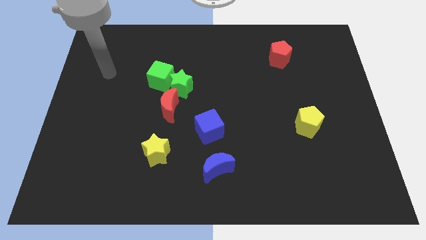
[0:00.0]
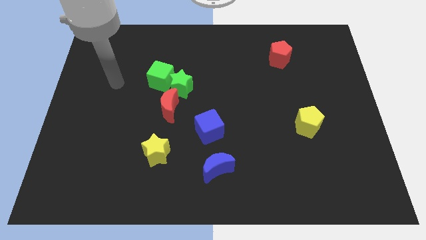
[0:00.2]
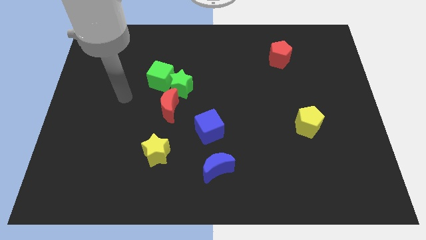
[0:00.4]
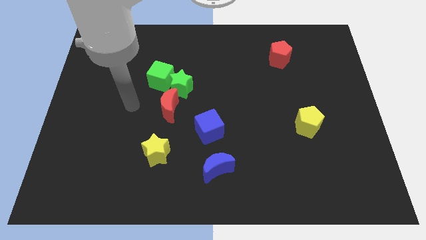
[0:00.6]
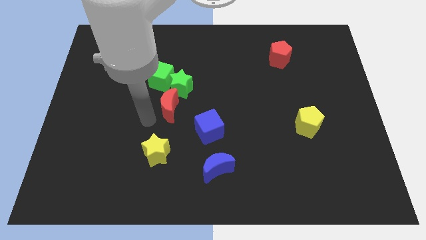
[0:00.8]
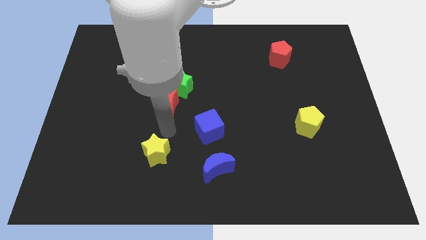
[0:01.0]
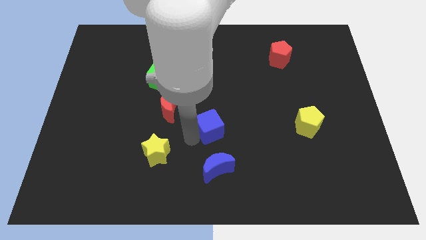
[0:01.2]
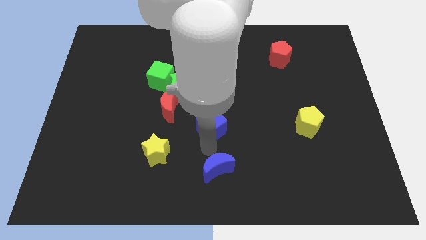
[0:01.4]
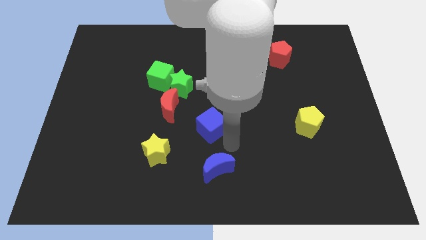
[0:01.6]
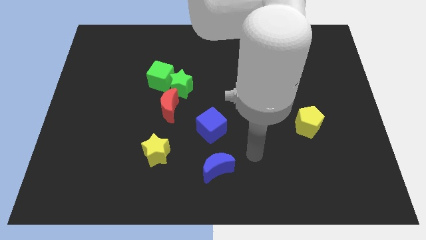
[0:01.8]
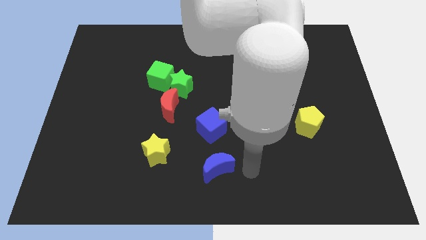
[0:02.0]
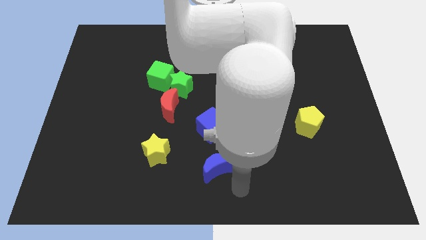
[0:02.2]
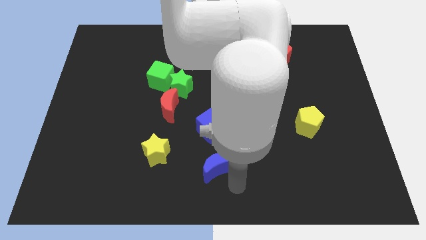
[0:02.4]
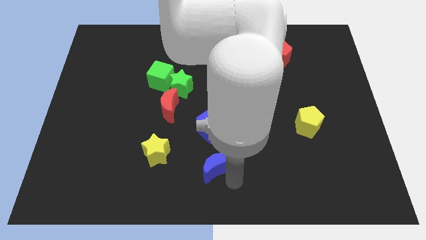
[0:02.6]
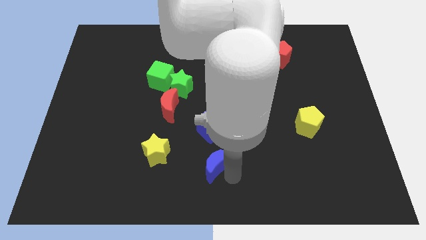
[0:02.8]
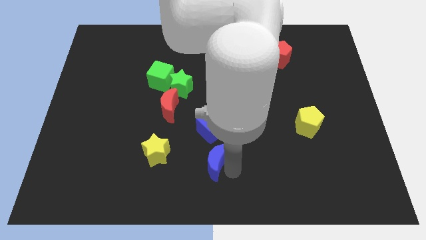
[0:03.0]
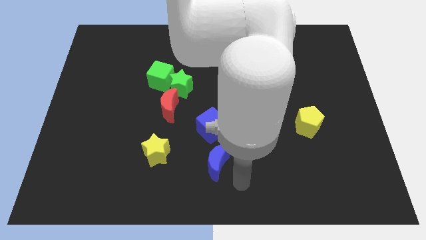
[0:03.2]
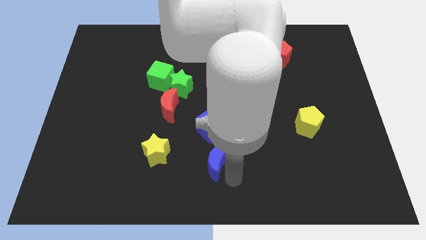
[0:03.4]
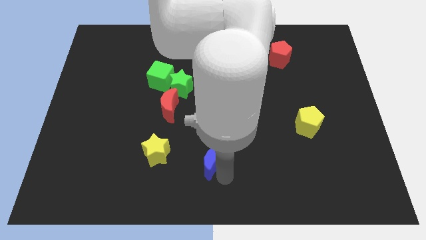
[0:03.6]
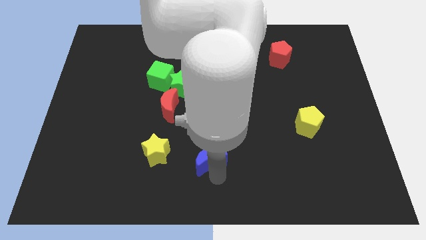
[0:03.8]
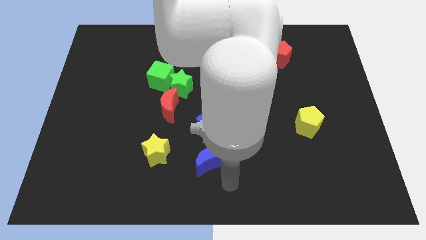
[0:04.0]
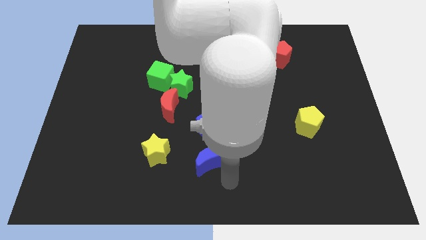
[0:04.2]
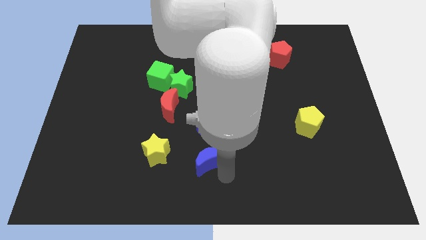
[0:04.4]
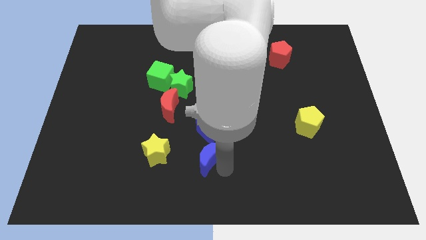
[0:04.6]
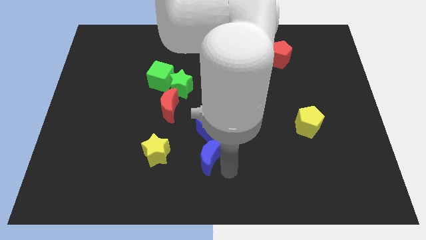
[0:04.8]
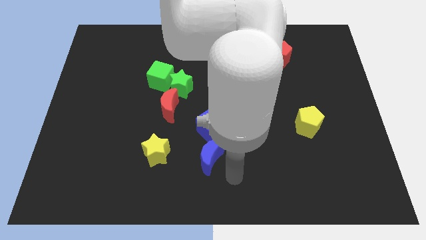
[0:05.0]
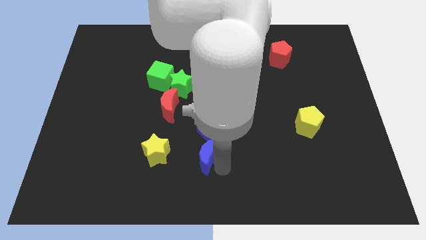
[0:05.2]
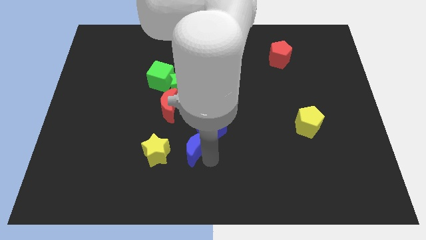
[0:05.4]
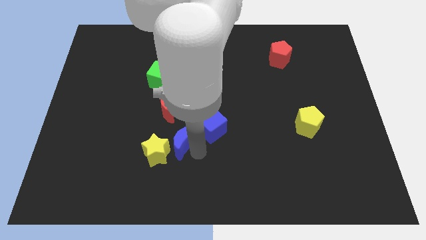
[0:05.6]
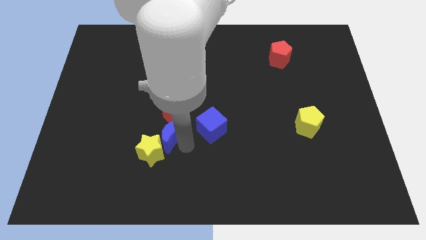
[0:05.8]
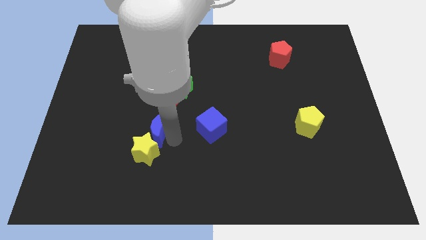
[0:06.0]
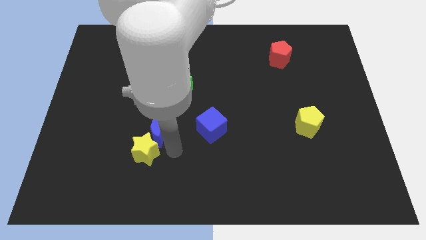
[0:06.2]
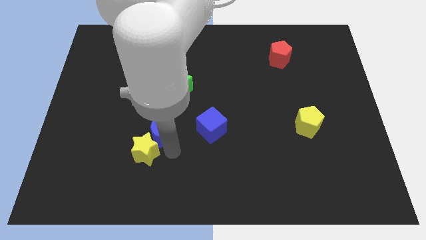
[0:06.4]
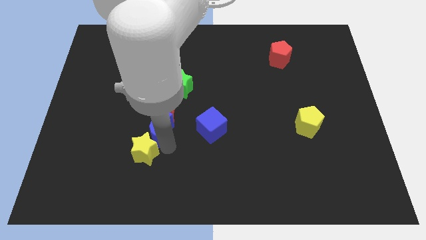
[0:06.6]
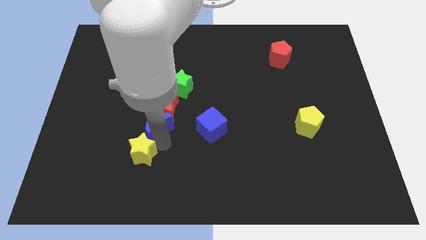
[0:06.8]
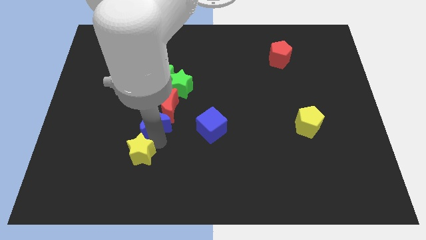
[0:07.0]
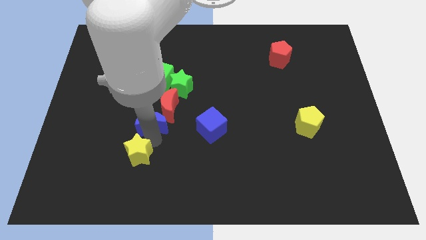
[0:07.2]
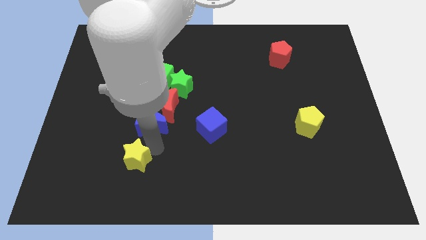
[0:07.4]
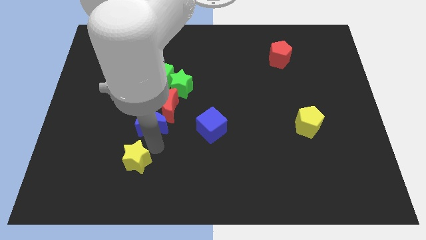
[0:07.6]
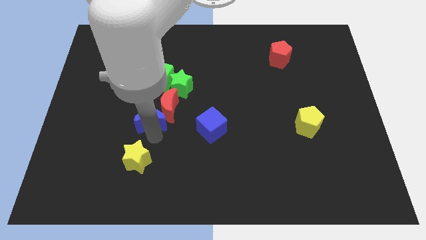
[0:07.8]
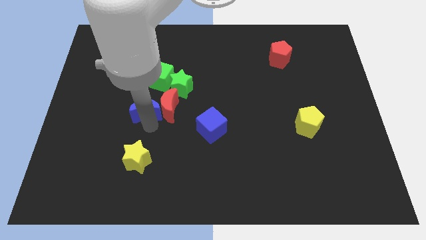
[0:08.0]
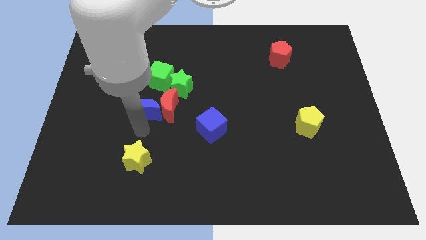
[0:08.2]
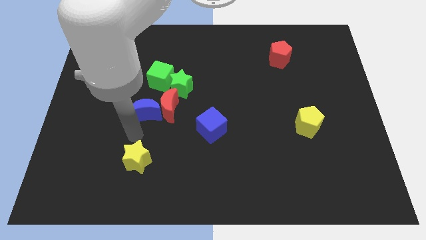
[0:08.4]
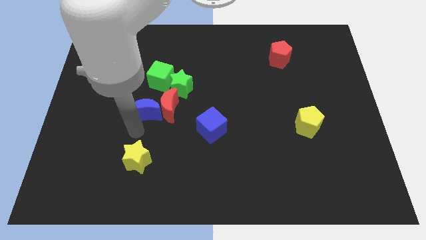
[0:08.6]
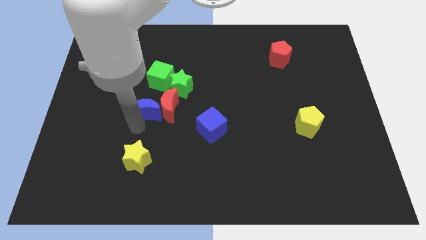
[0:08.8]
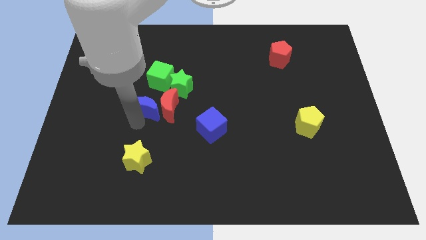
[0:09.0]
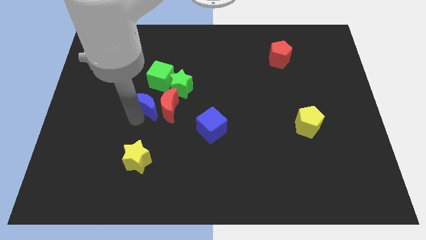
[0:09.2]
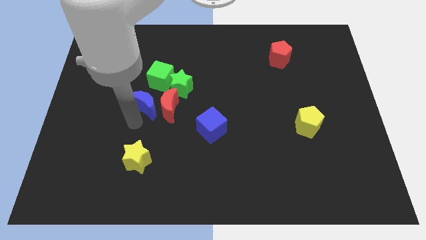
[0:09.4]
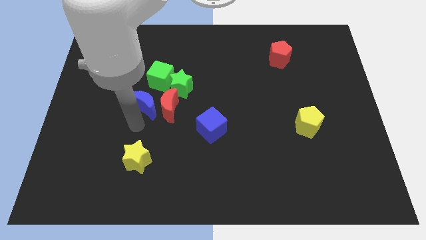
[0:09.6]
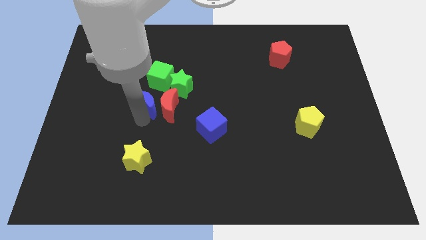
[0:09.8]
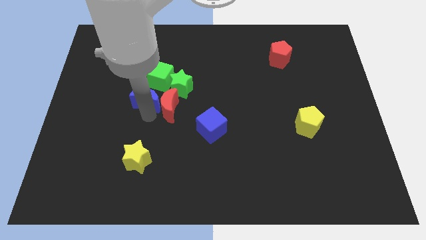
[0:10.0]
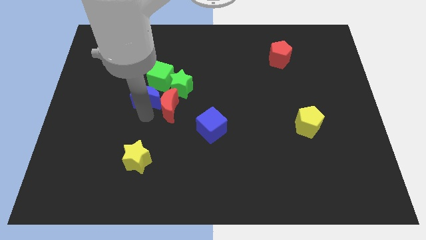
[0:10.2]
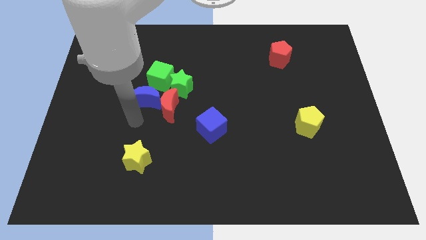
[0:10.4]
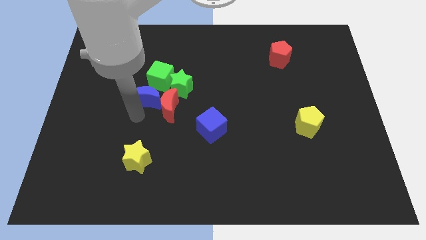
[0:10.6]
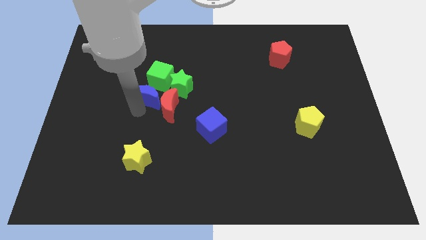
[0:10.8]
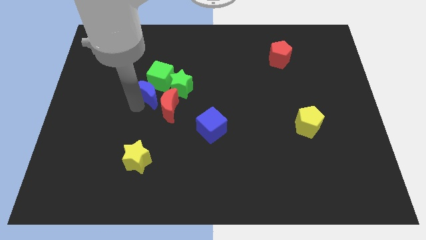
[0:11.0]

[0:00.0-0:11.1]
push the blue moon to the green cube

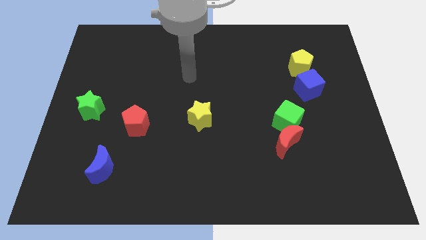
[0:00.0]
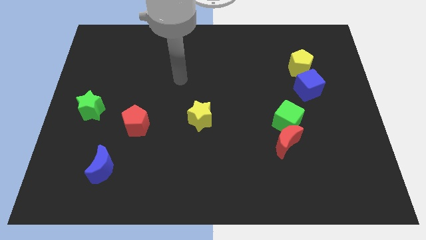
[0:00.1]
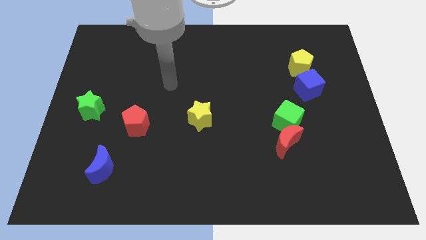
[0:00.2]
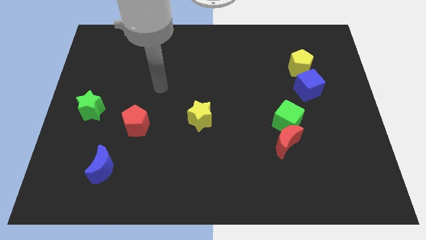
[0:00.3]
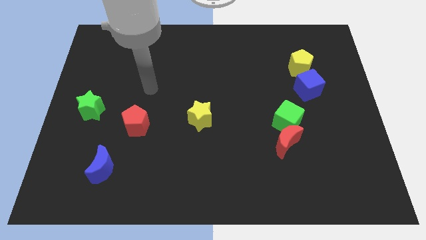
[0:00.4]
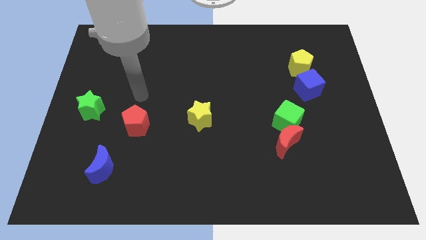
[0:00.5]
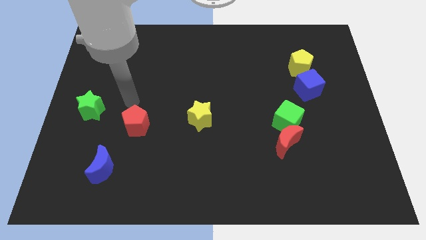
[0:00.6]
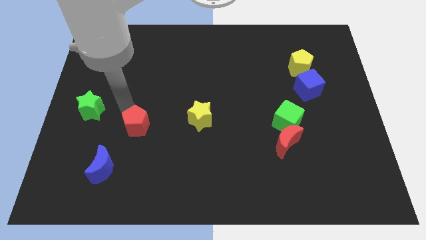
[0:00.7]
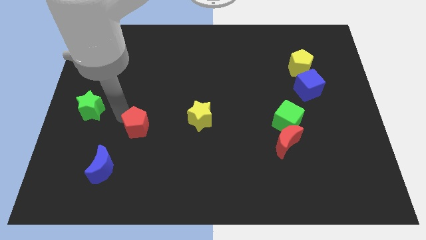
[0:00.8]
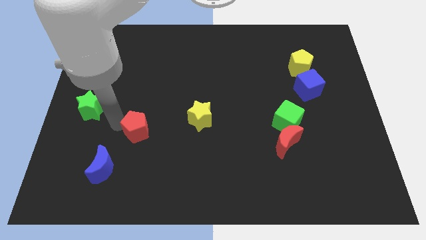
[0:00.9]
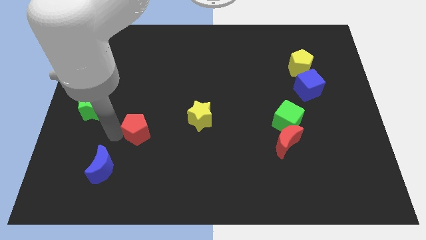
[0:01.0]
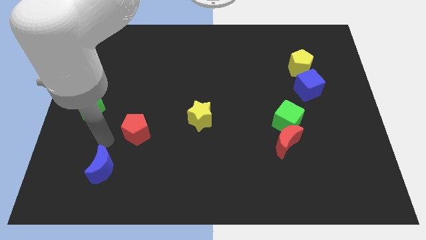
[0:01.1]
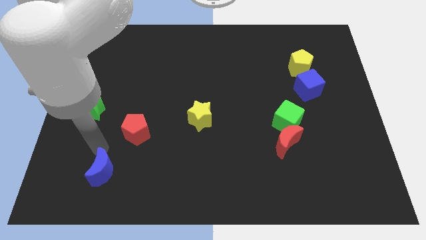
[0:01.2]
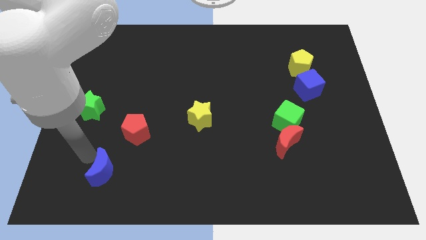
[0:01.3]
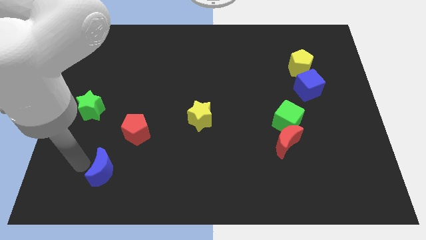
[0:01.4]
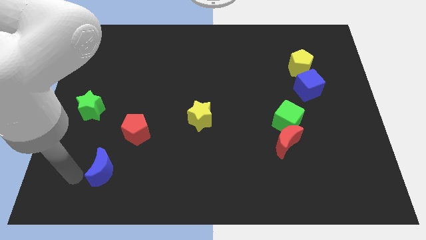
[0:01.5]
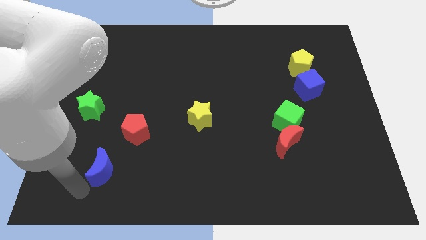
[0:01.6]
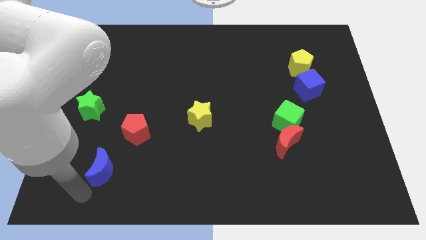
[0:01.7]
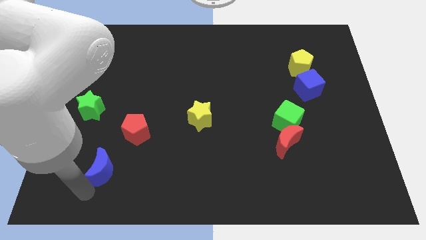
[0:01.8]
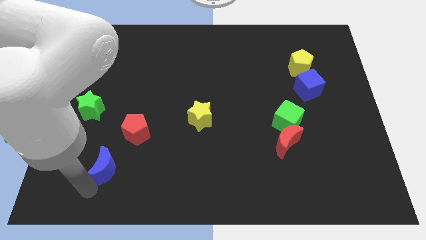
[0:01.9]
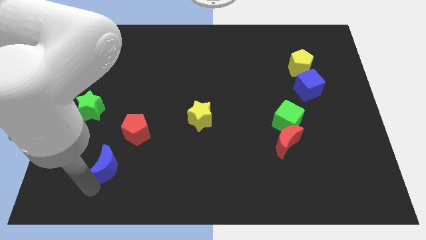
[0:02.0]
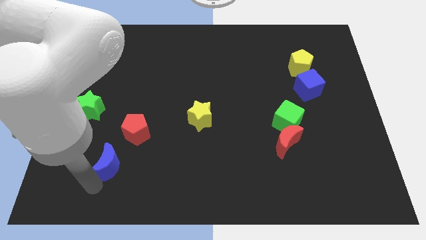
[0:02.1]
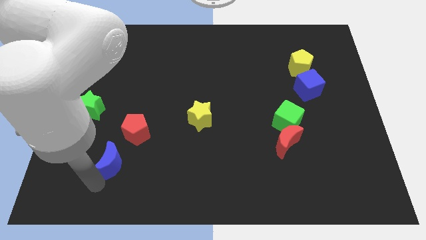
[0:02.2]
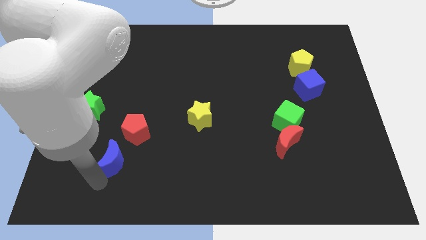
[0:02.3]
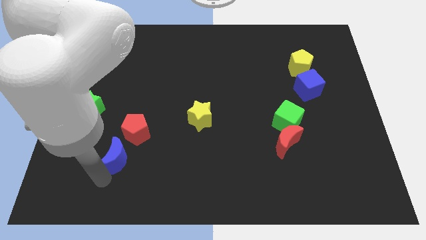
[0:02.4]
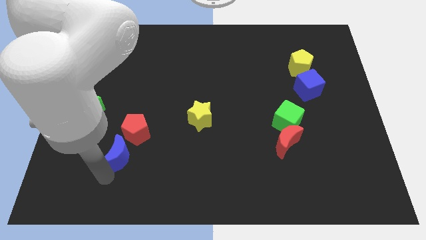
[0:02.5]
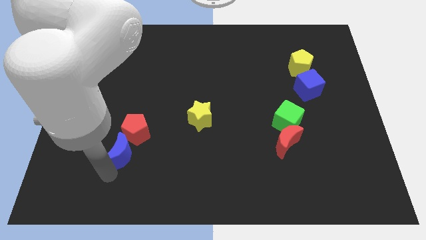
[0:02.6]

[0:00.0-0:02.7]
slide the blue moon close to the red pentagon
